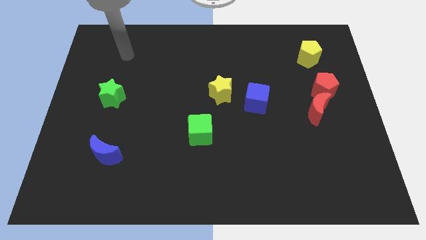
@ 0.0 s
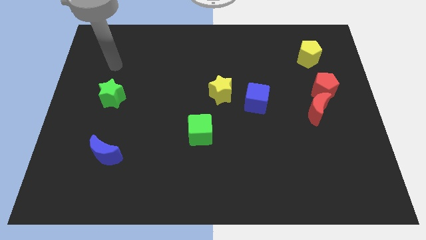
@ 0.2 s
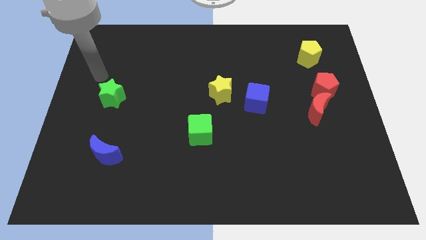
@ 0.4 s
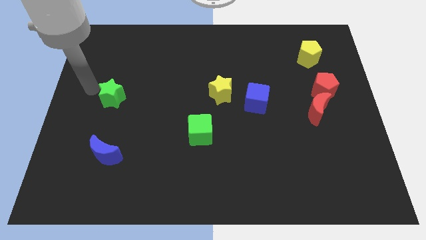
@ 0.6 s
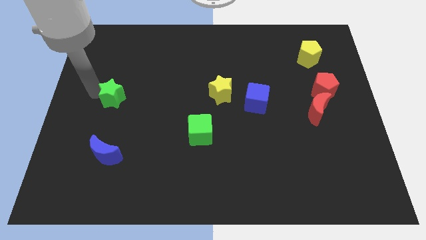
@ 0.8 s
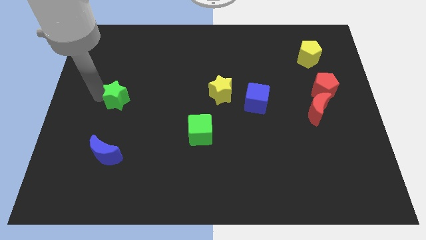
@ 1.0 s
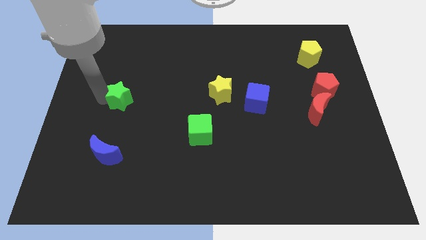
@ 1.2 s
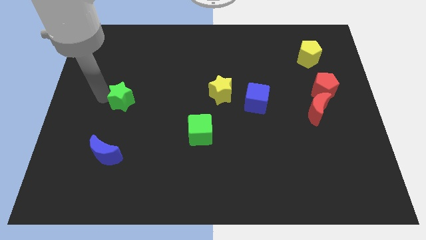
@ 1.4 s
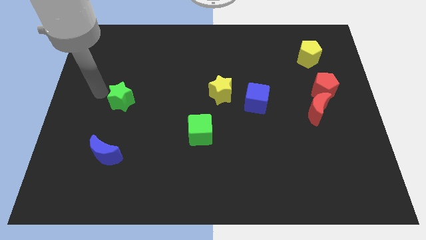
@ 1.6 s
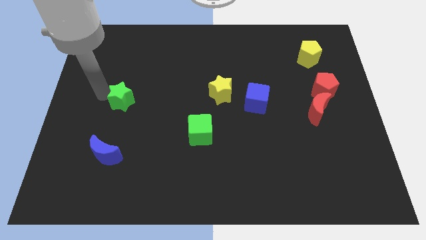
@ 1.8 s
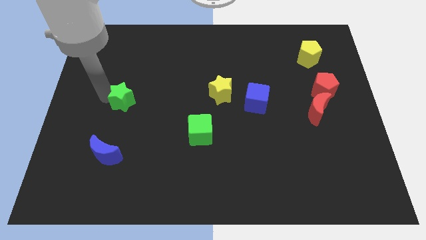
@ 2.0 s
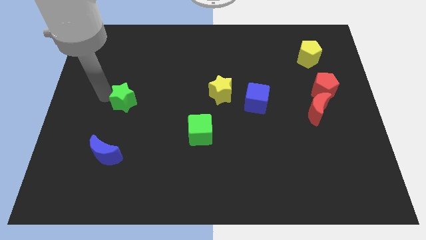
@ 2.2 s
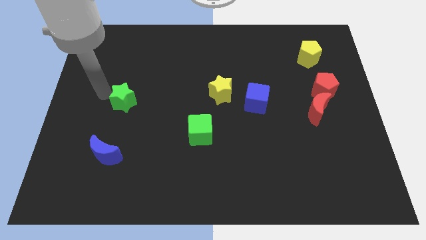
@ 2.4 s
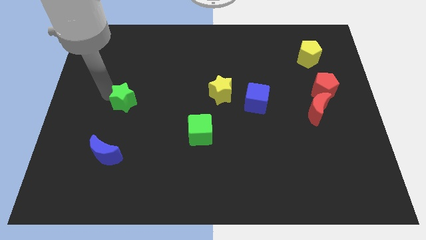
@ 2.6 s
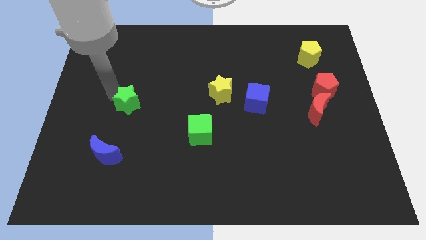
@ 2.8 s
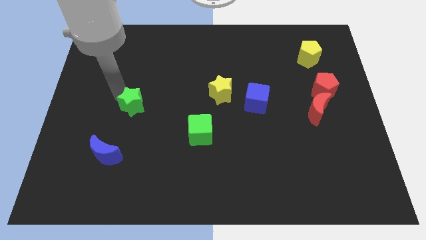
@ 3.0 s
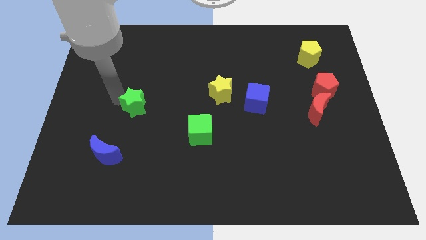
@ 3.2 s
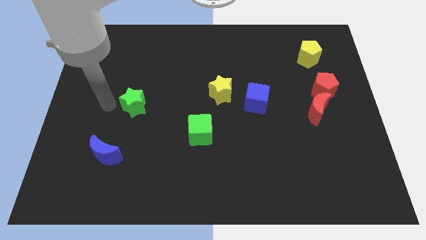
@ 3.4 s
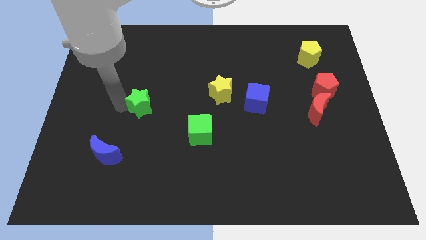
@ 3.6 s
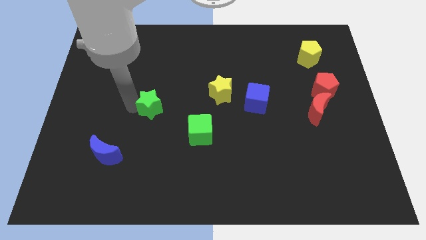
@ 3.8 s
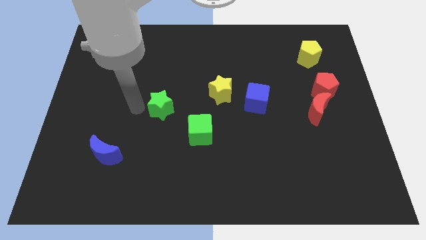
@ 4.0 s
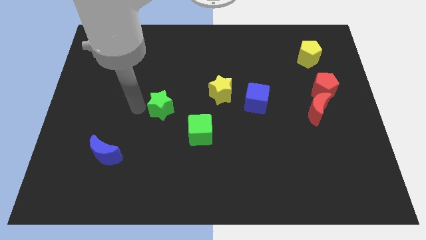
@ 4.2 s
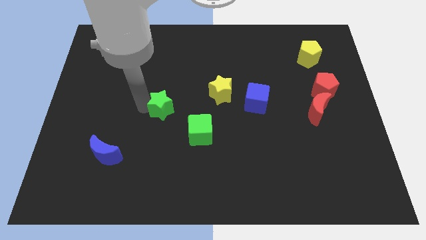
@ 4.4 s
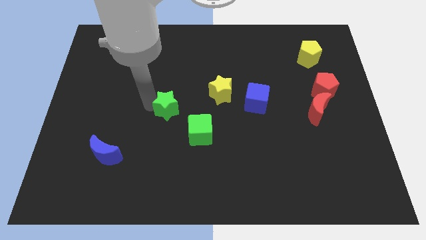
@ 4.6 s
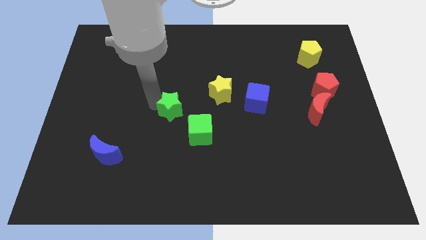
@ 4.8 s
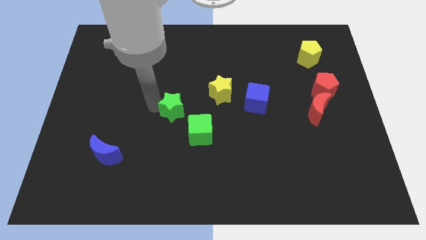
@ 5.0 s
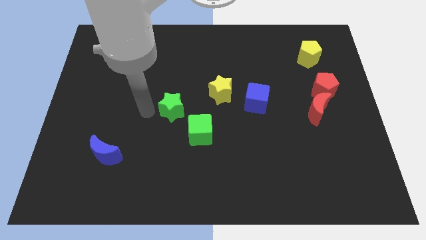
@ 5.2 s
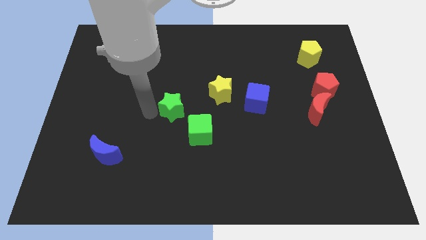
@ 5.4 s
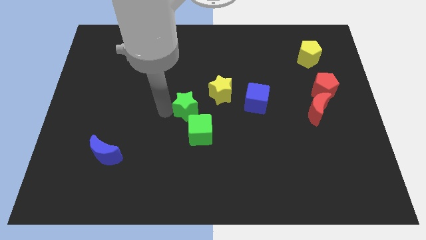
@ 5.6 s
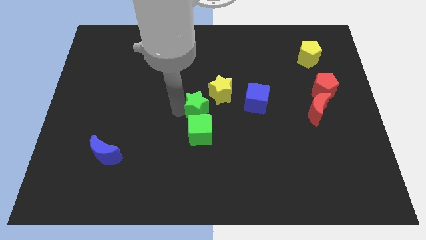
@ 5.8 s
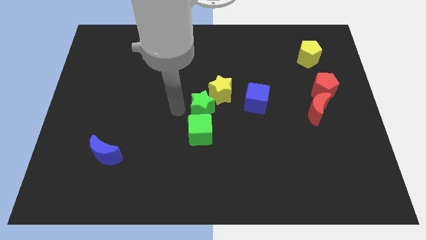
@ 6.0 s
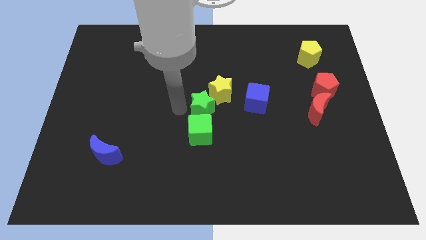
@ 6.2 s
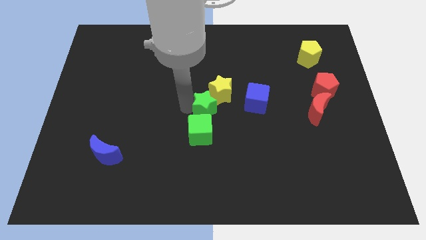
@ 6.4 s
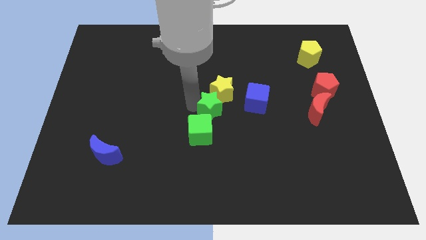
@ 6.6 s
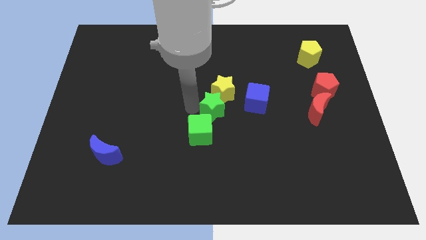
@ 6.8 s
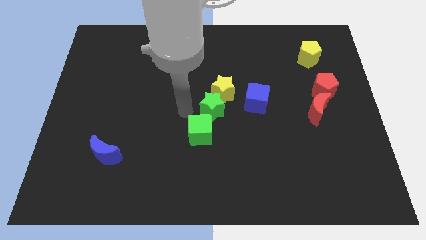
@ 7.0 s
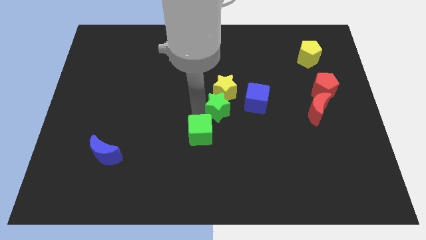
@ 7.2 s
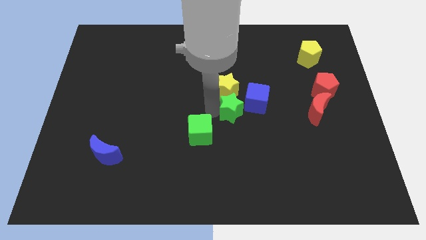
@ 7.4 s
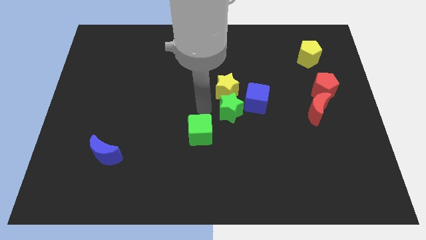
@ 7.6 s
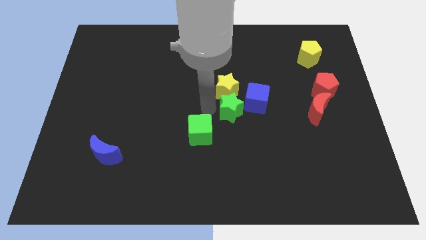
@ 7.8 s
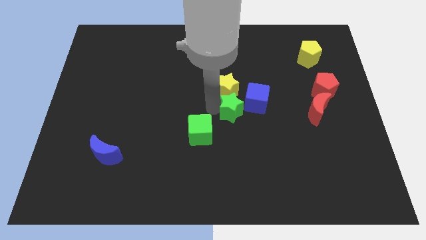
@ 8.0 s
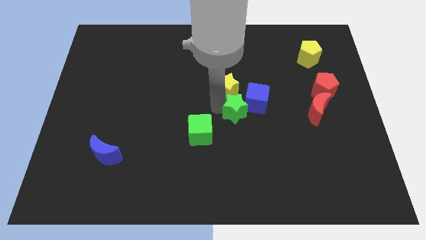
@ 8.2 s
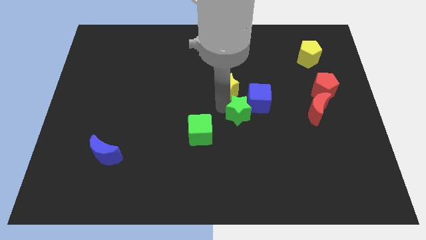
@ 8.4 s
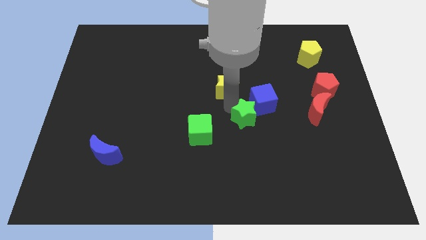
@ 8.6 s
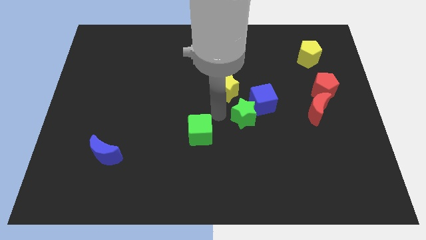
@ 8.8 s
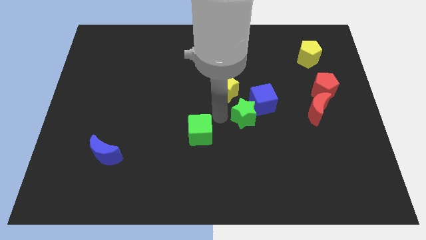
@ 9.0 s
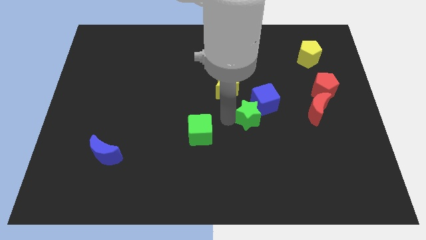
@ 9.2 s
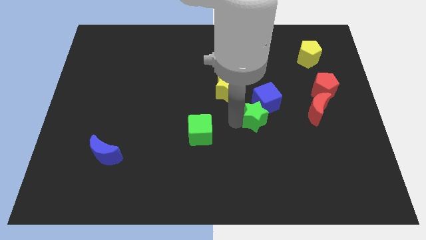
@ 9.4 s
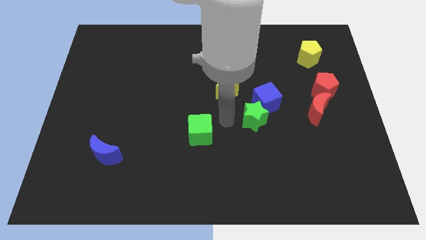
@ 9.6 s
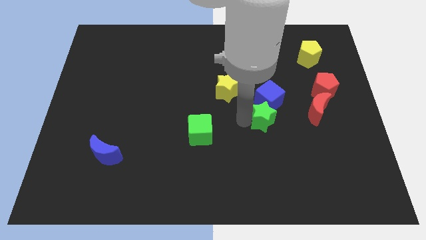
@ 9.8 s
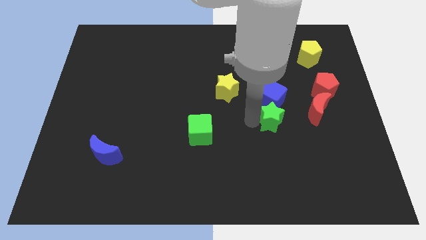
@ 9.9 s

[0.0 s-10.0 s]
push the green star to the bottom right side of the blue cube

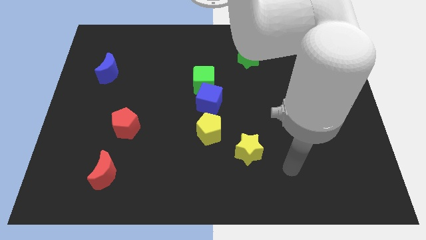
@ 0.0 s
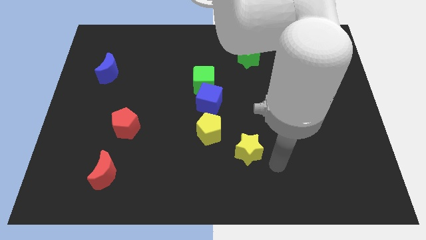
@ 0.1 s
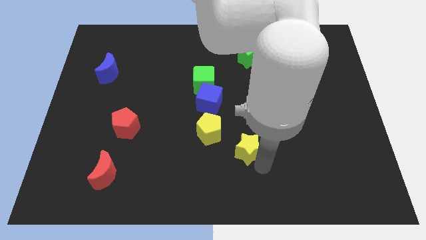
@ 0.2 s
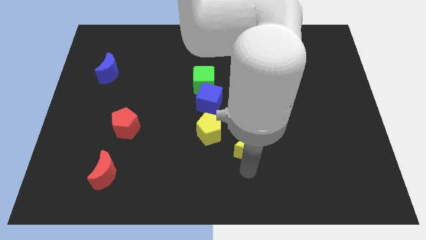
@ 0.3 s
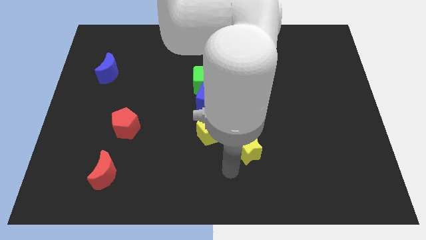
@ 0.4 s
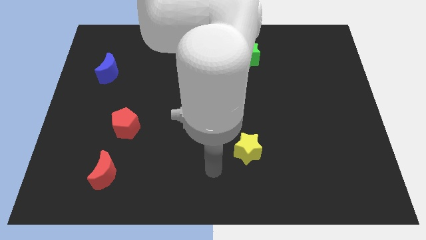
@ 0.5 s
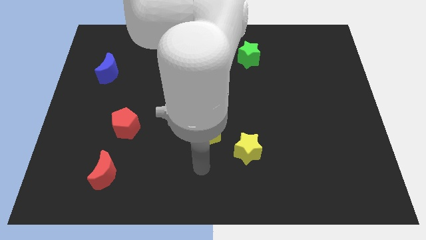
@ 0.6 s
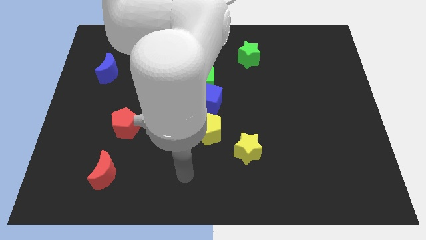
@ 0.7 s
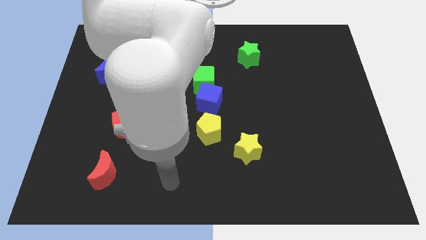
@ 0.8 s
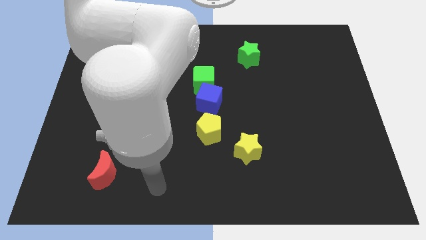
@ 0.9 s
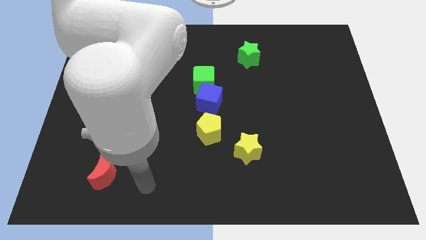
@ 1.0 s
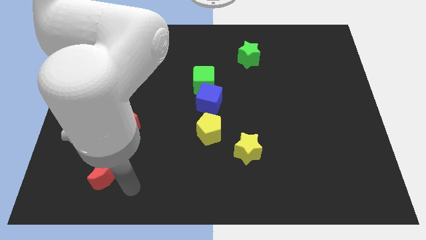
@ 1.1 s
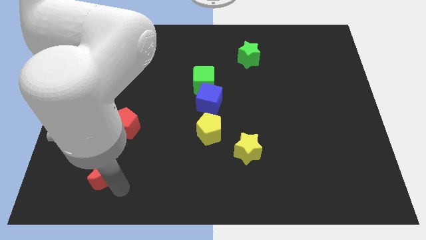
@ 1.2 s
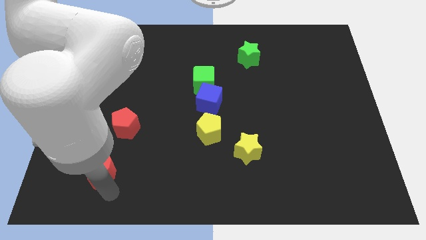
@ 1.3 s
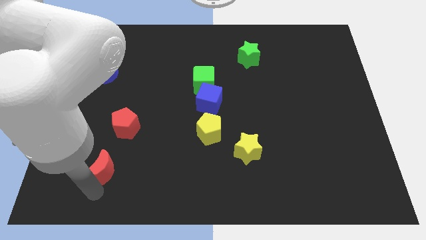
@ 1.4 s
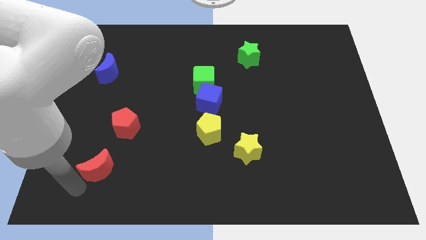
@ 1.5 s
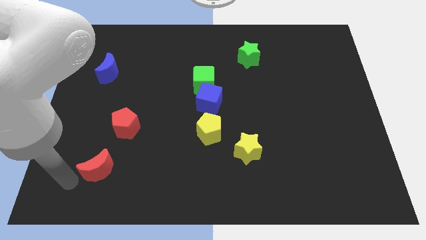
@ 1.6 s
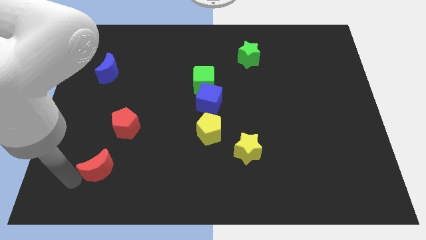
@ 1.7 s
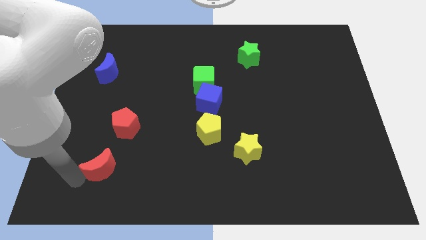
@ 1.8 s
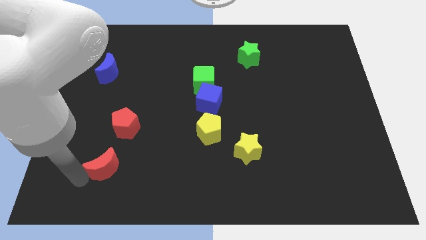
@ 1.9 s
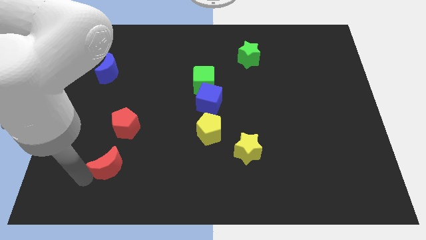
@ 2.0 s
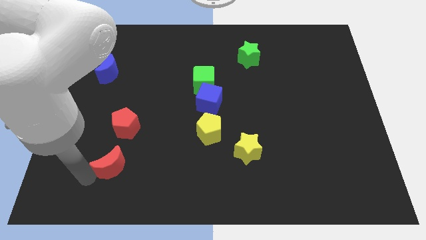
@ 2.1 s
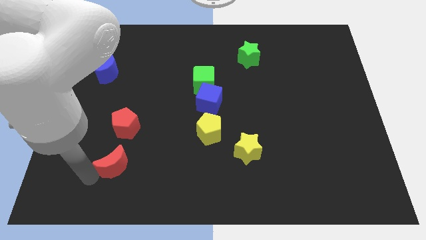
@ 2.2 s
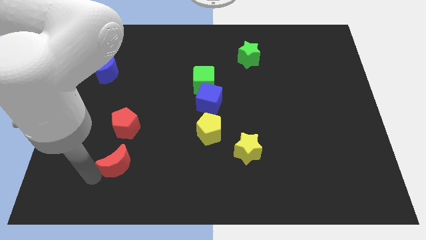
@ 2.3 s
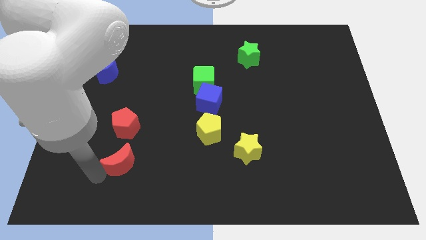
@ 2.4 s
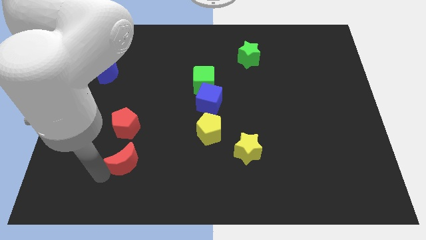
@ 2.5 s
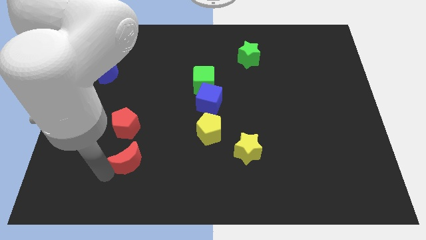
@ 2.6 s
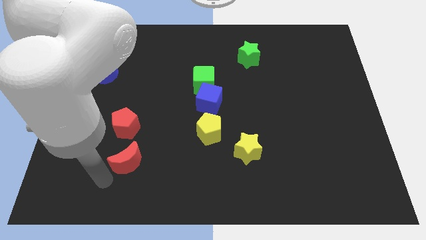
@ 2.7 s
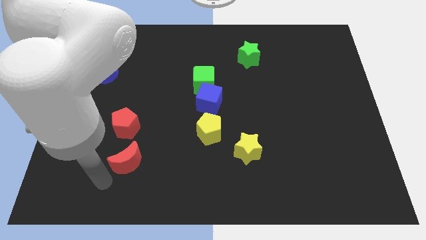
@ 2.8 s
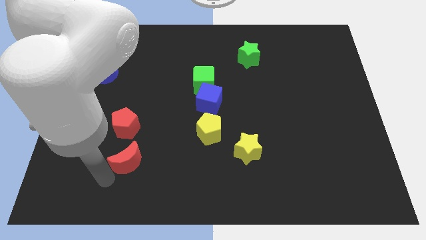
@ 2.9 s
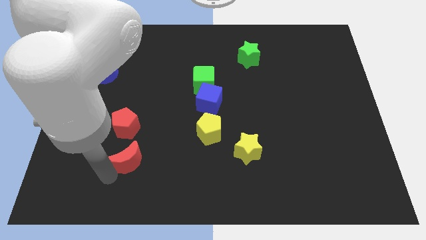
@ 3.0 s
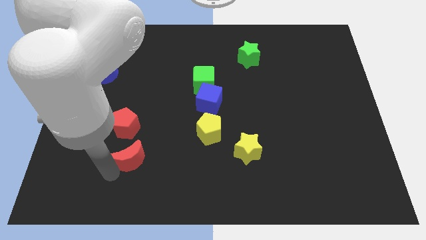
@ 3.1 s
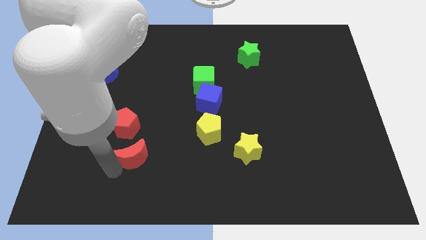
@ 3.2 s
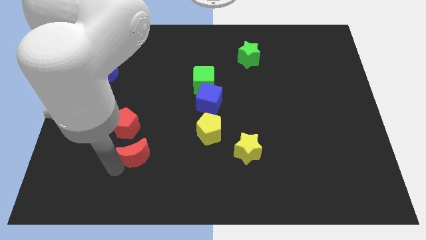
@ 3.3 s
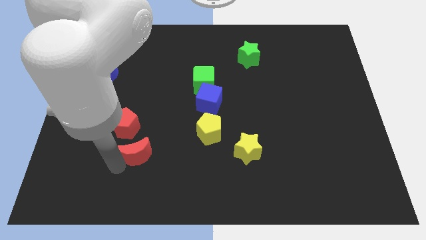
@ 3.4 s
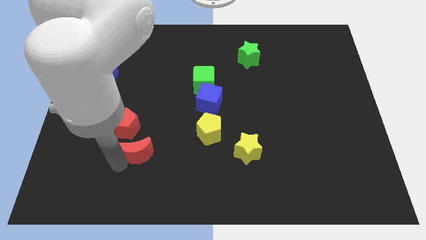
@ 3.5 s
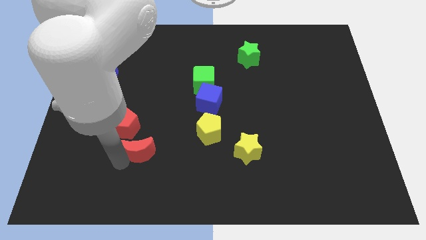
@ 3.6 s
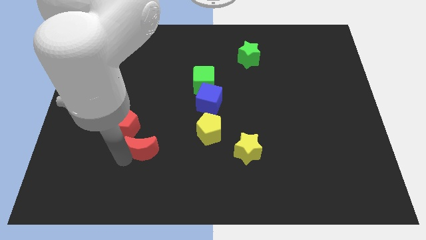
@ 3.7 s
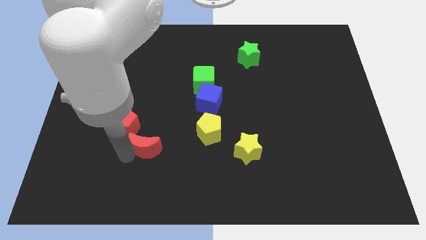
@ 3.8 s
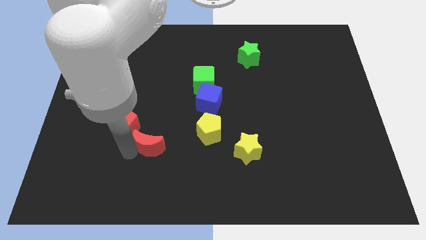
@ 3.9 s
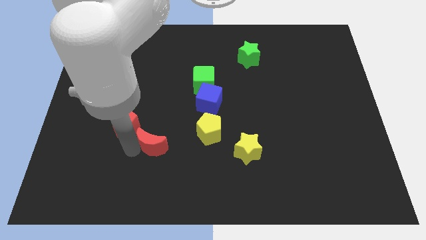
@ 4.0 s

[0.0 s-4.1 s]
move the red moon right of the red pentagon
